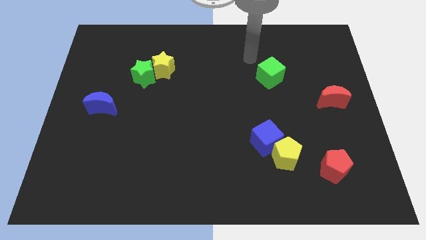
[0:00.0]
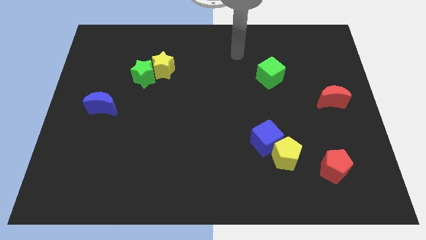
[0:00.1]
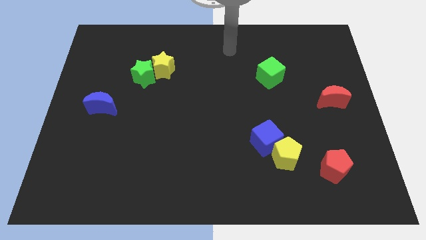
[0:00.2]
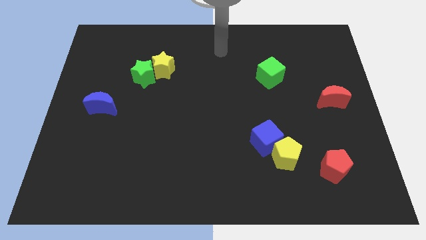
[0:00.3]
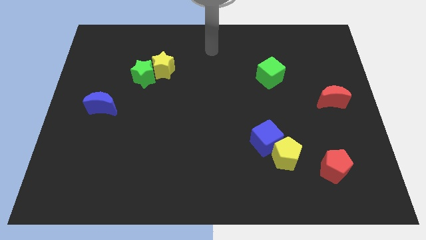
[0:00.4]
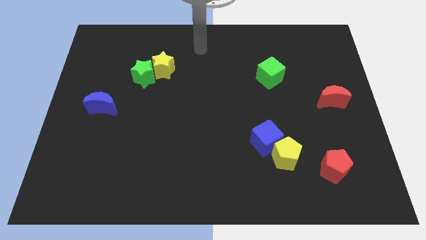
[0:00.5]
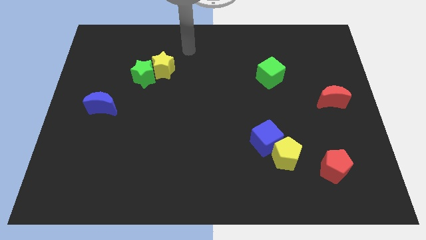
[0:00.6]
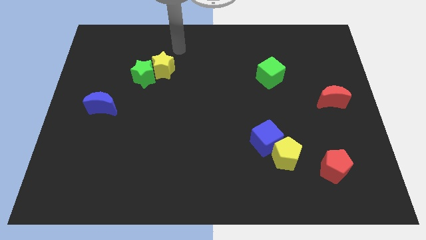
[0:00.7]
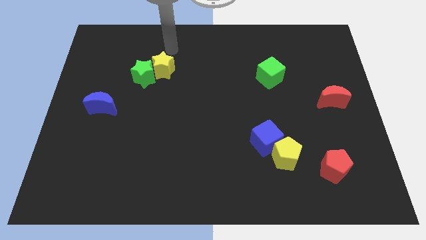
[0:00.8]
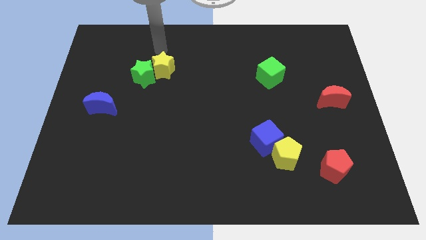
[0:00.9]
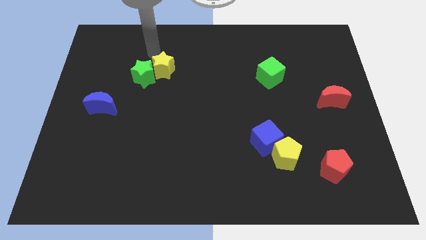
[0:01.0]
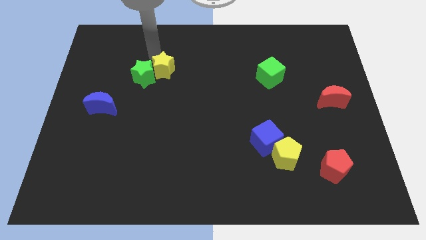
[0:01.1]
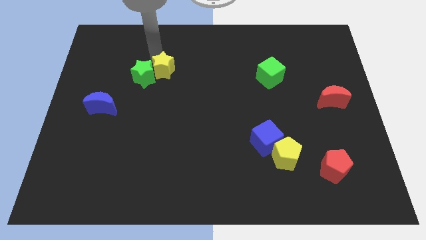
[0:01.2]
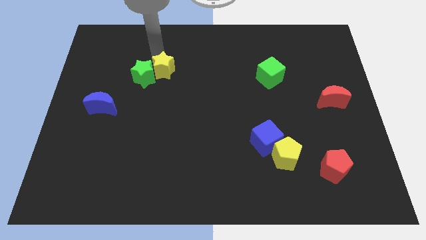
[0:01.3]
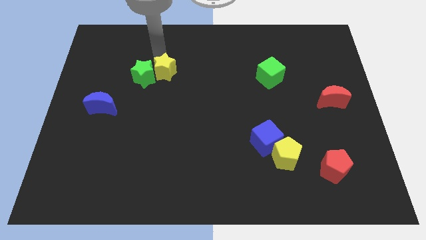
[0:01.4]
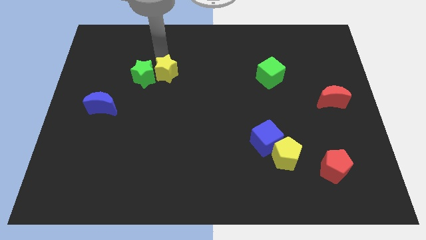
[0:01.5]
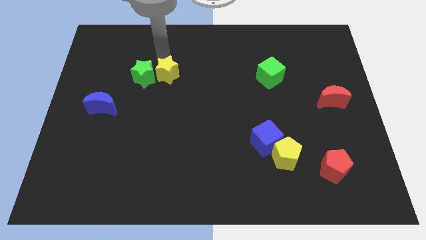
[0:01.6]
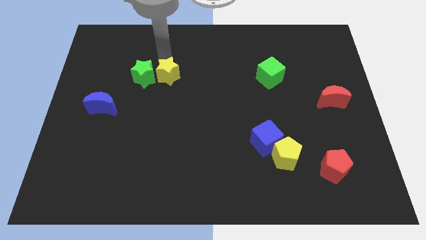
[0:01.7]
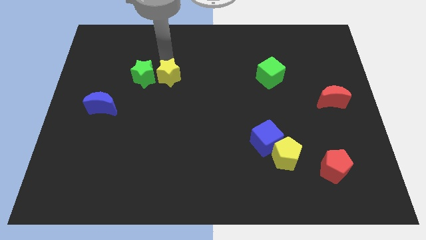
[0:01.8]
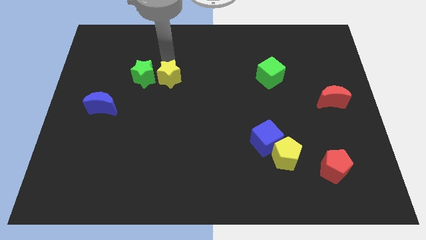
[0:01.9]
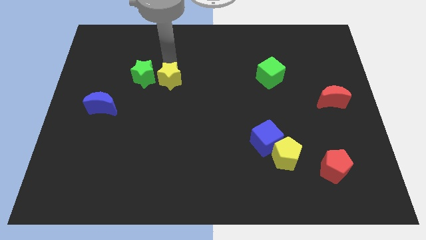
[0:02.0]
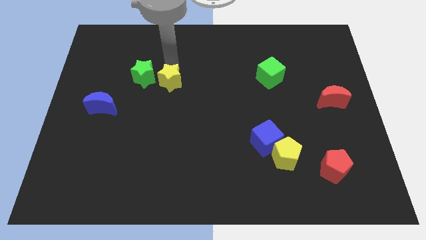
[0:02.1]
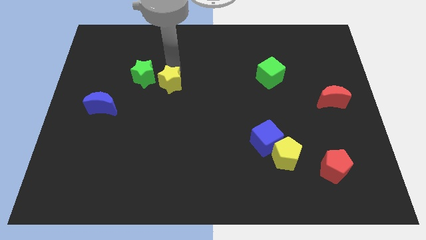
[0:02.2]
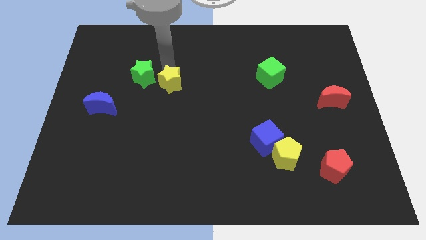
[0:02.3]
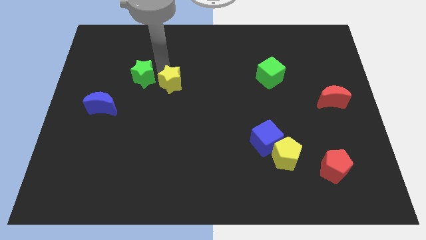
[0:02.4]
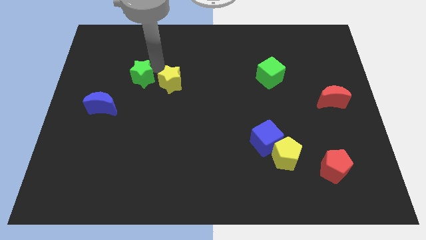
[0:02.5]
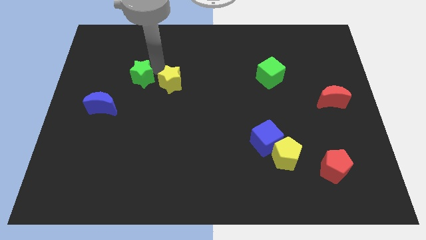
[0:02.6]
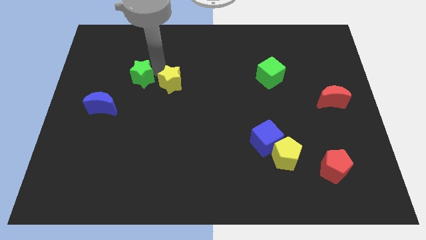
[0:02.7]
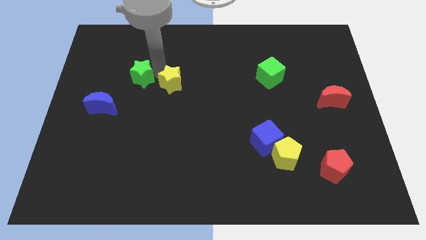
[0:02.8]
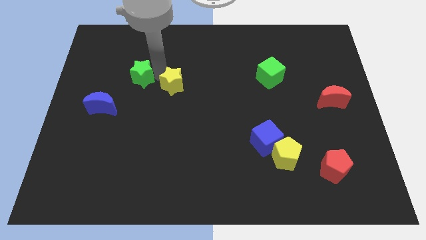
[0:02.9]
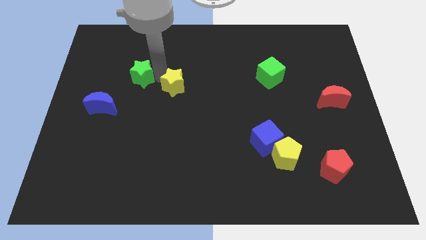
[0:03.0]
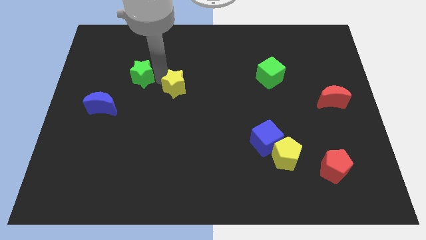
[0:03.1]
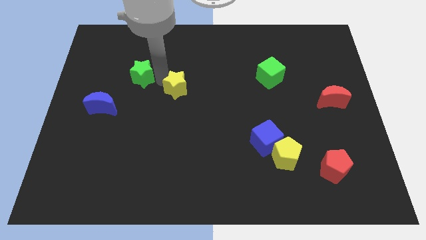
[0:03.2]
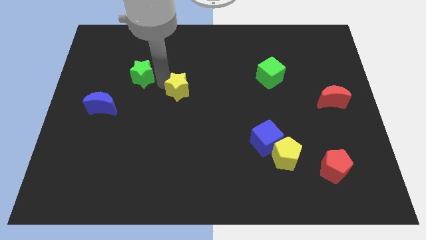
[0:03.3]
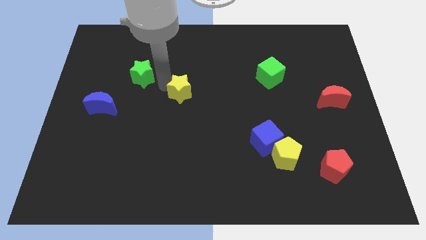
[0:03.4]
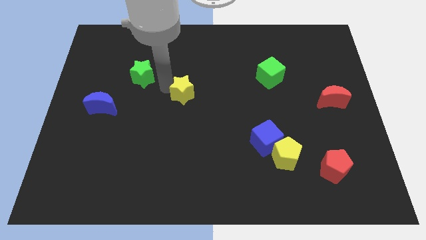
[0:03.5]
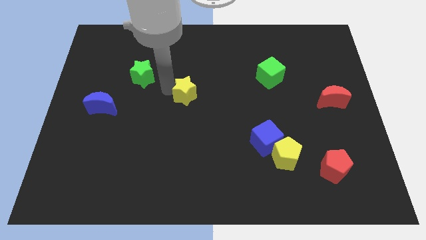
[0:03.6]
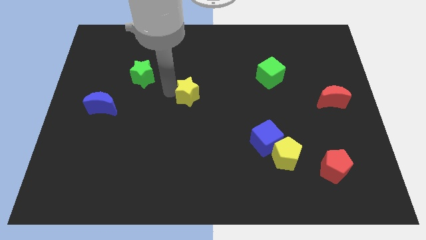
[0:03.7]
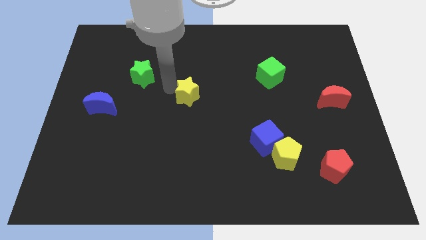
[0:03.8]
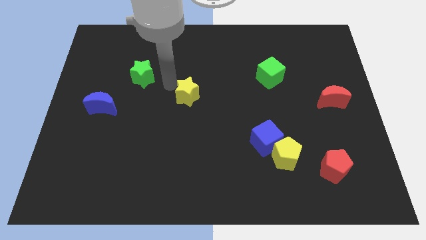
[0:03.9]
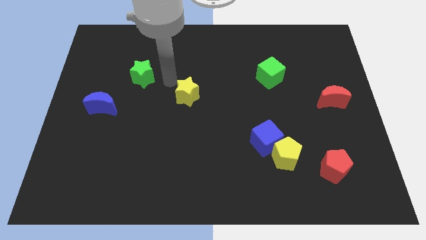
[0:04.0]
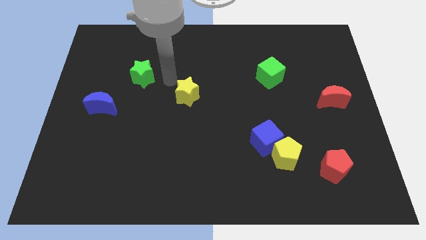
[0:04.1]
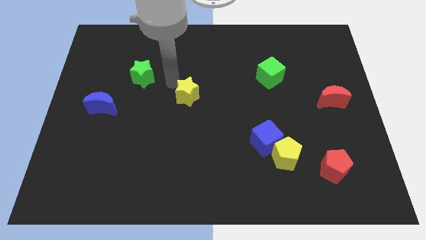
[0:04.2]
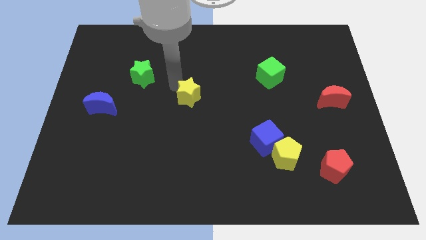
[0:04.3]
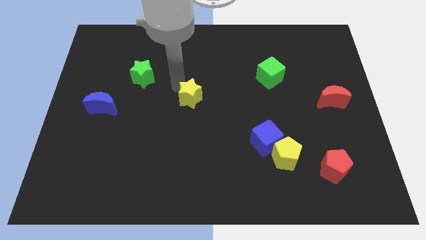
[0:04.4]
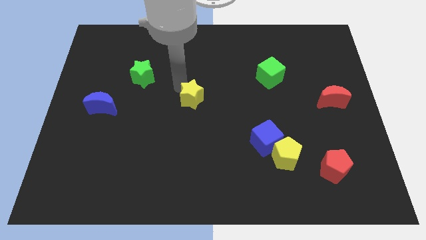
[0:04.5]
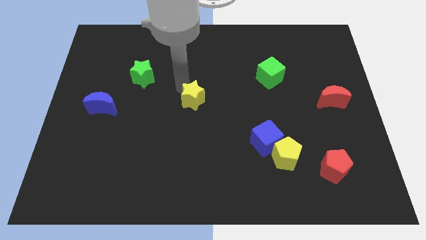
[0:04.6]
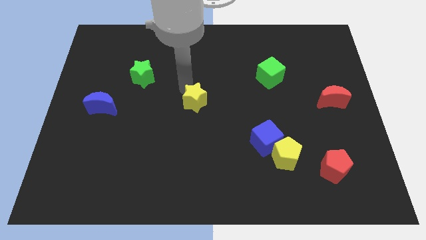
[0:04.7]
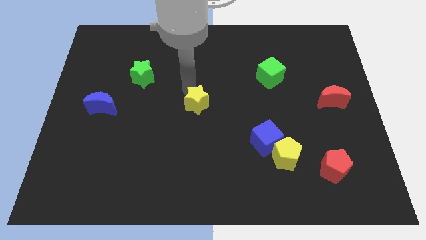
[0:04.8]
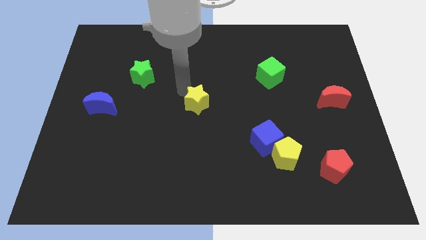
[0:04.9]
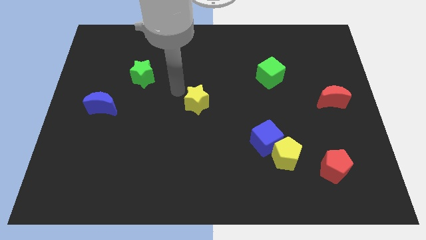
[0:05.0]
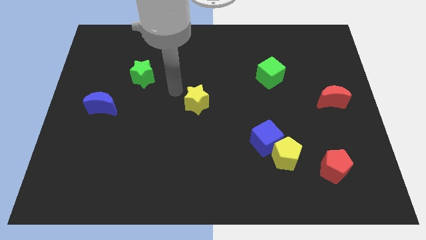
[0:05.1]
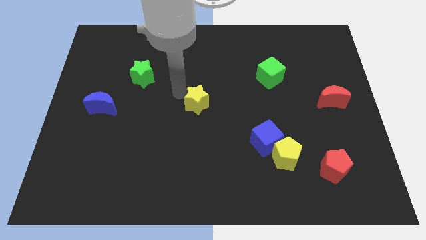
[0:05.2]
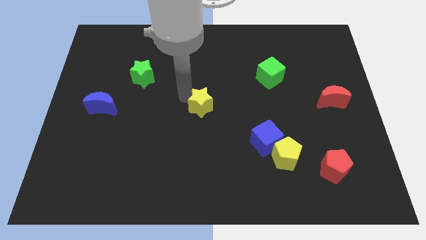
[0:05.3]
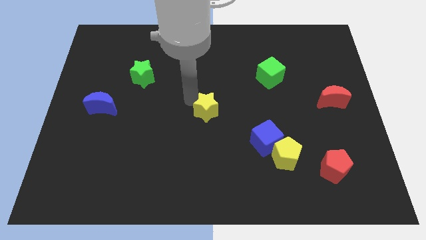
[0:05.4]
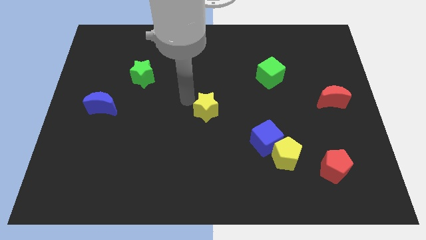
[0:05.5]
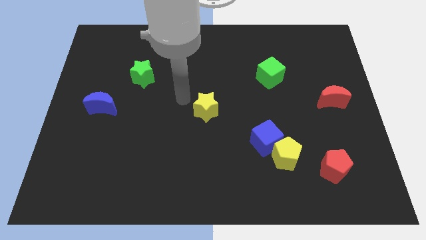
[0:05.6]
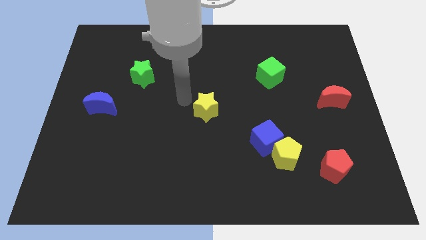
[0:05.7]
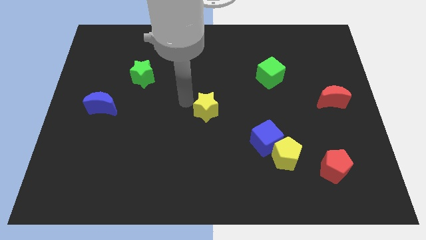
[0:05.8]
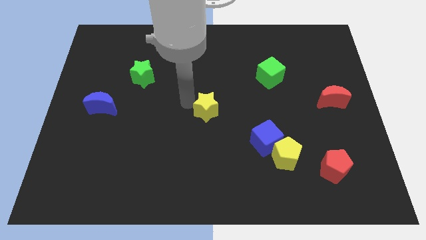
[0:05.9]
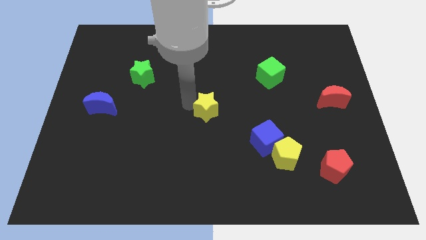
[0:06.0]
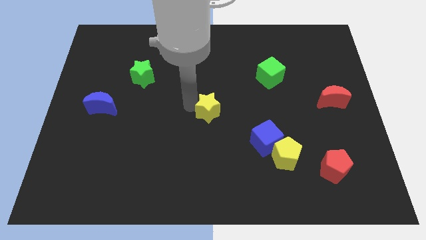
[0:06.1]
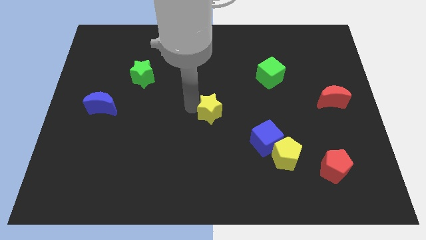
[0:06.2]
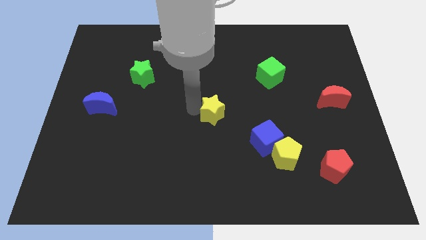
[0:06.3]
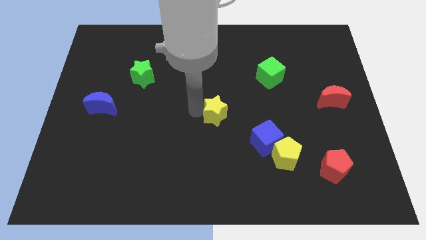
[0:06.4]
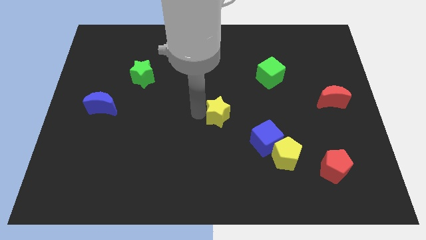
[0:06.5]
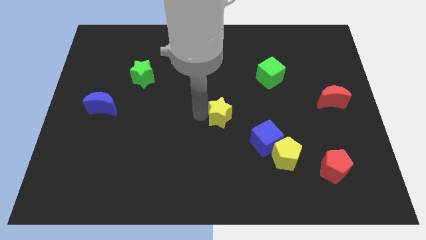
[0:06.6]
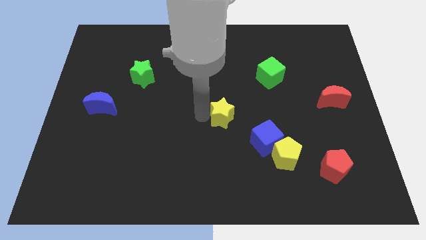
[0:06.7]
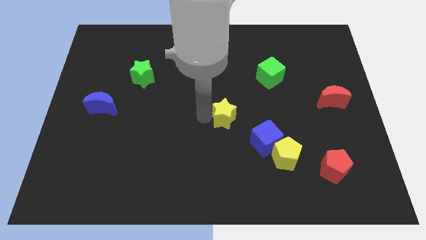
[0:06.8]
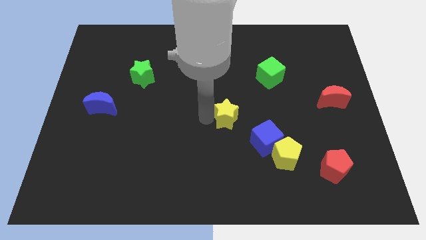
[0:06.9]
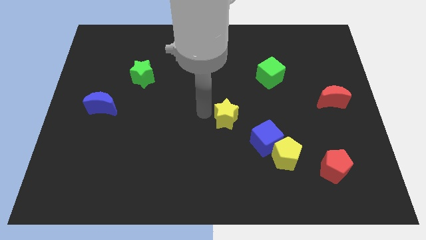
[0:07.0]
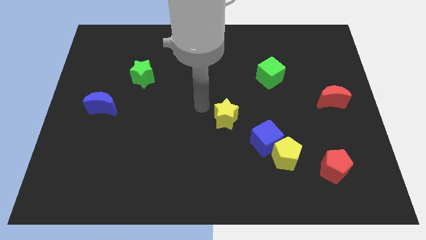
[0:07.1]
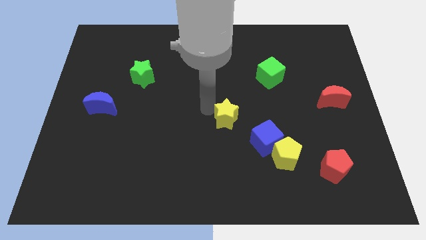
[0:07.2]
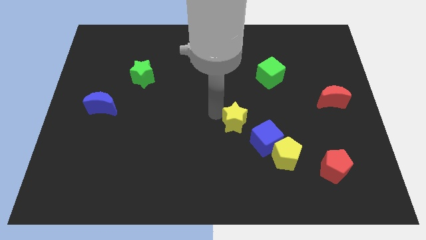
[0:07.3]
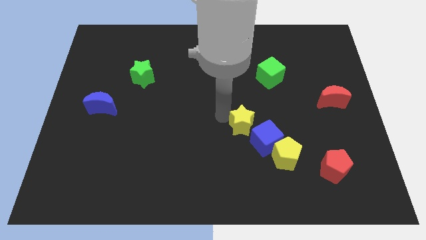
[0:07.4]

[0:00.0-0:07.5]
slide the yellow star diagonally up and to the left of the yellow pentagon
